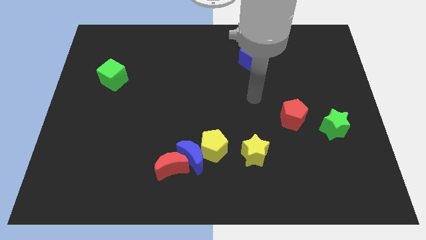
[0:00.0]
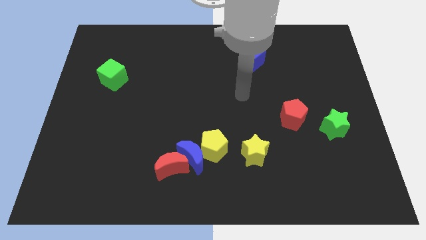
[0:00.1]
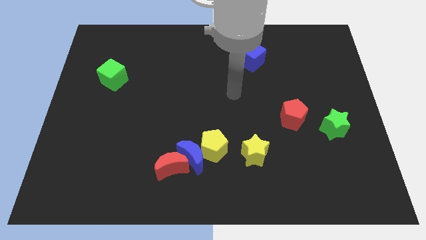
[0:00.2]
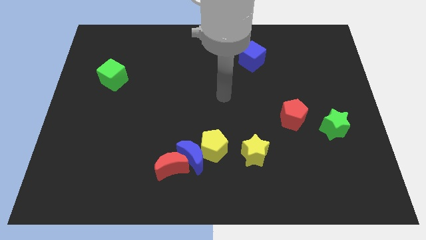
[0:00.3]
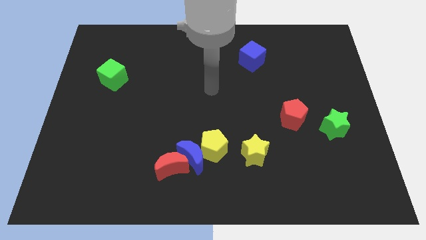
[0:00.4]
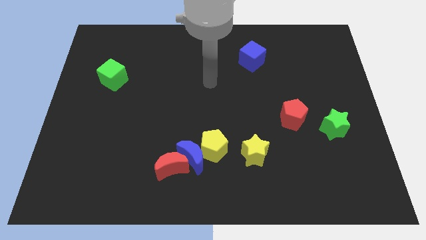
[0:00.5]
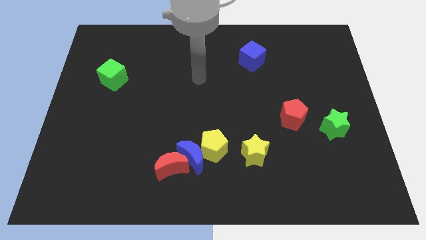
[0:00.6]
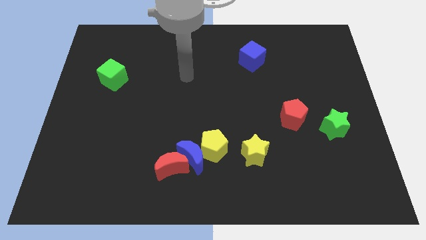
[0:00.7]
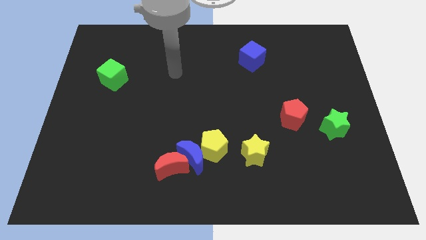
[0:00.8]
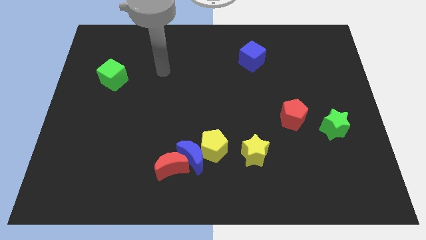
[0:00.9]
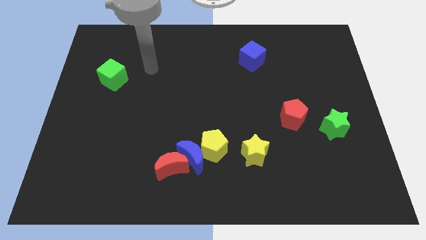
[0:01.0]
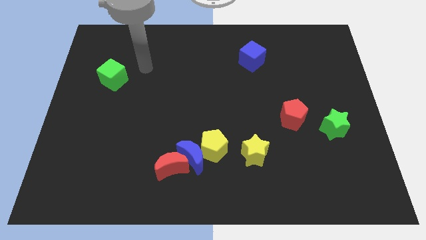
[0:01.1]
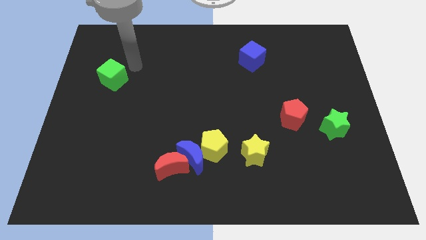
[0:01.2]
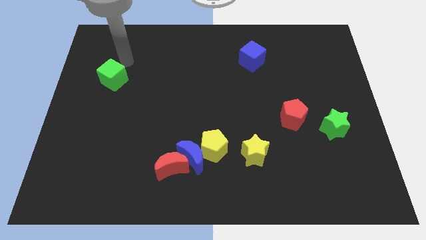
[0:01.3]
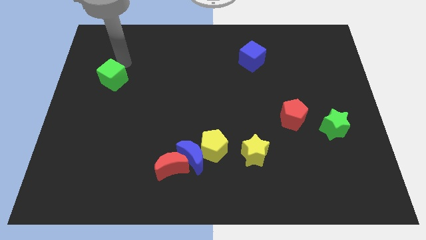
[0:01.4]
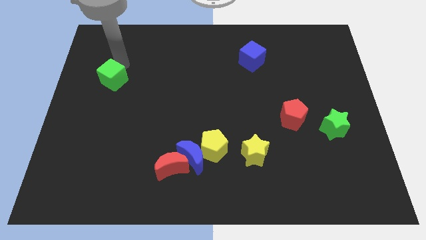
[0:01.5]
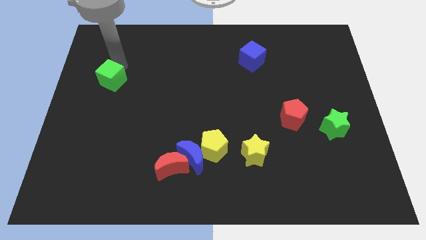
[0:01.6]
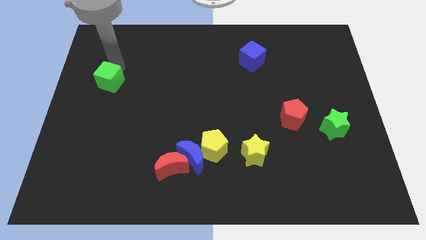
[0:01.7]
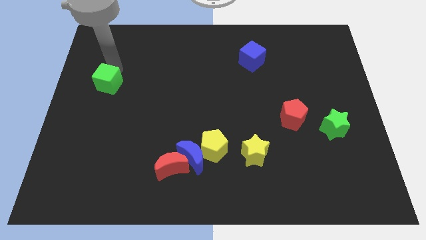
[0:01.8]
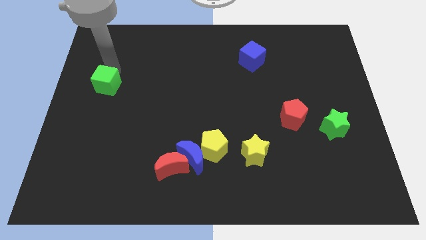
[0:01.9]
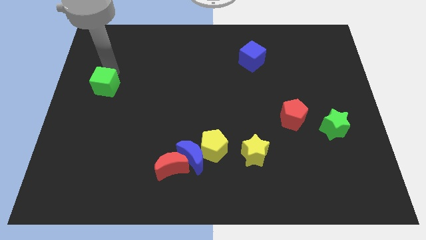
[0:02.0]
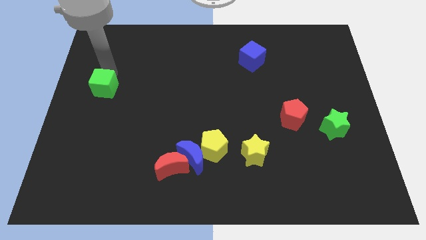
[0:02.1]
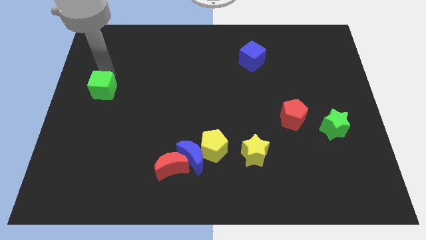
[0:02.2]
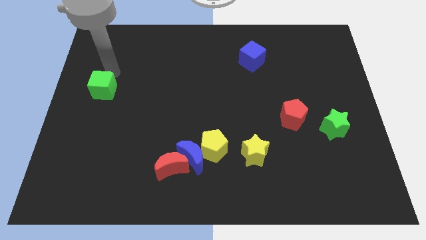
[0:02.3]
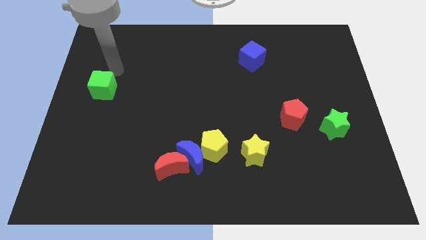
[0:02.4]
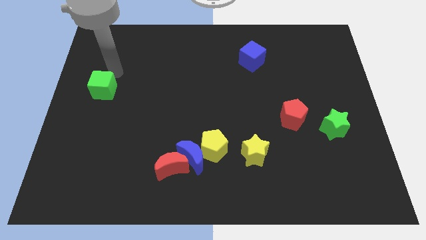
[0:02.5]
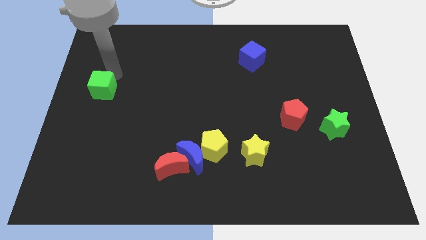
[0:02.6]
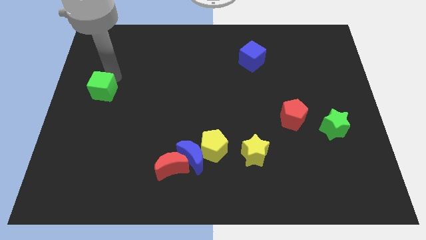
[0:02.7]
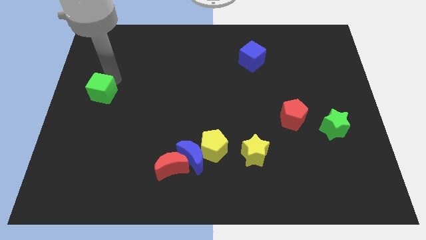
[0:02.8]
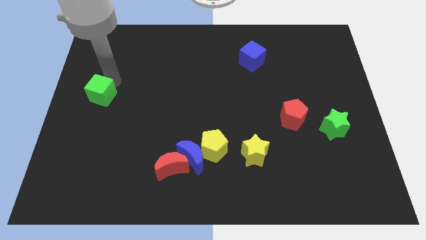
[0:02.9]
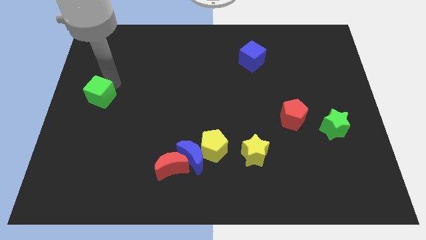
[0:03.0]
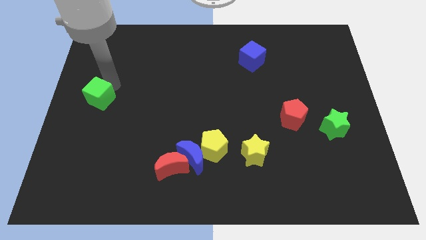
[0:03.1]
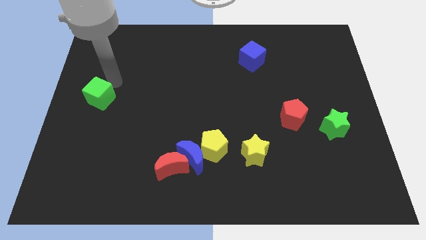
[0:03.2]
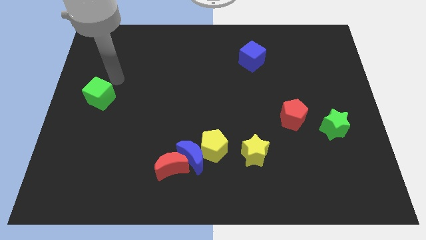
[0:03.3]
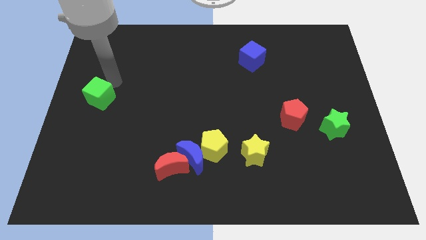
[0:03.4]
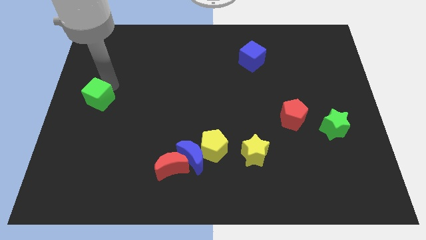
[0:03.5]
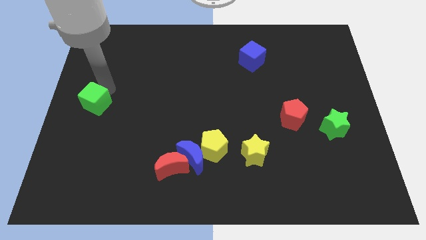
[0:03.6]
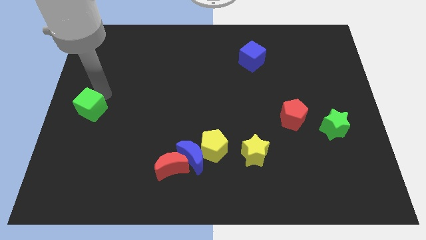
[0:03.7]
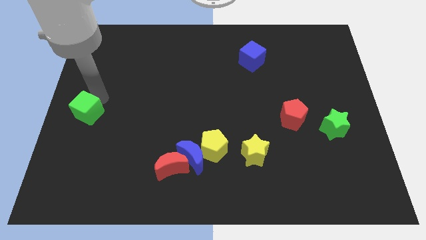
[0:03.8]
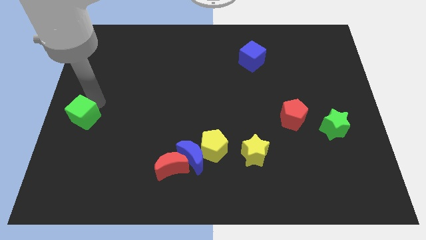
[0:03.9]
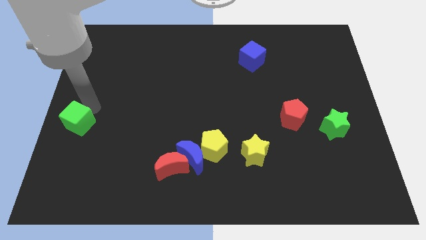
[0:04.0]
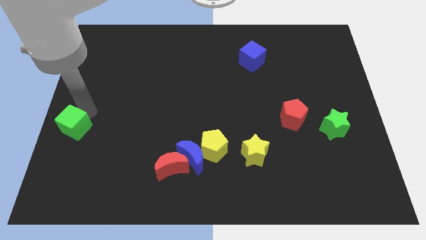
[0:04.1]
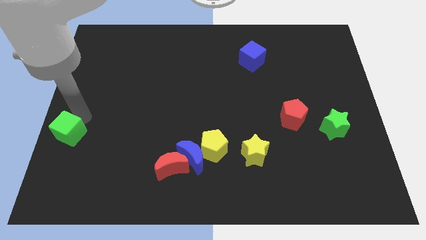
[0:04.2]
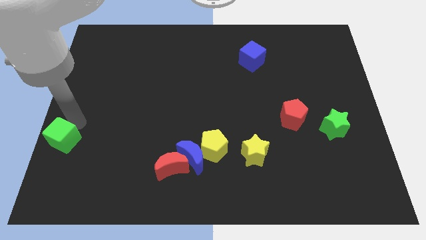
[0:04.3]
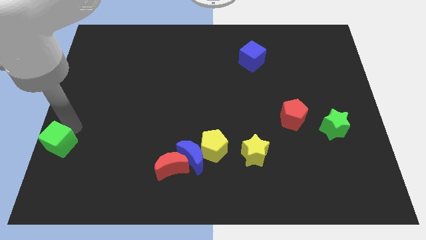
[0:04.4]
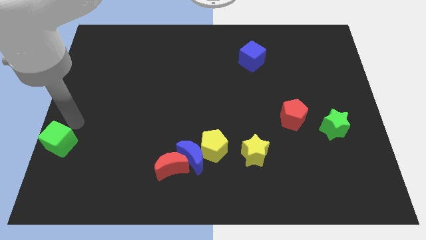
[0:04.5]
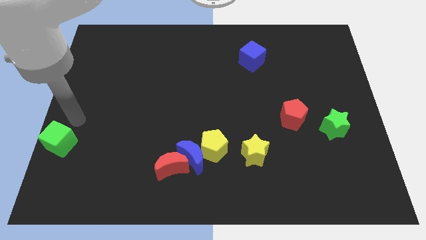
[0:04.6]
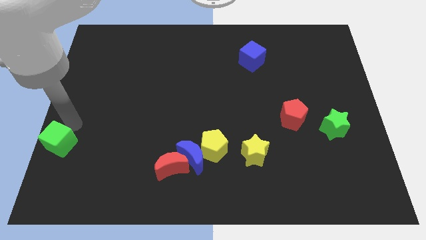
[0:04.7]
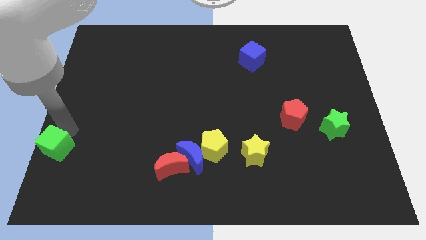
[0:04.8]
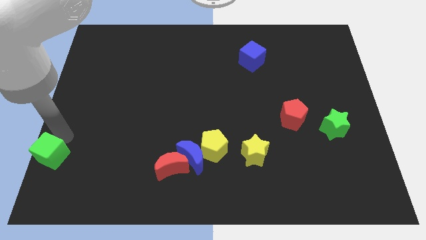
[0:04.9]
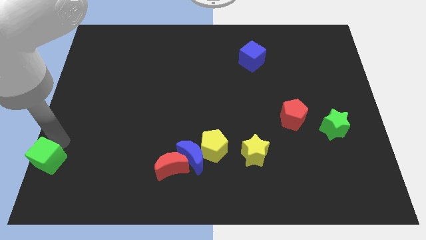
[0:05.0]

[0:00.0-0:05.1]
put the green cube to the bottom left of the board

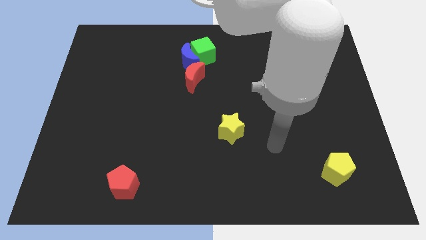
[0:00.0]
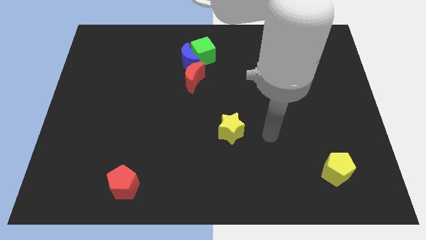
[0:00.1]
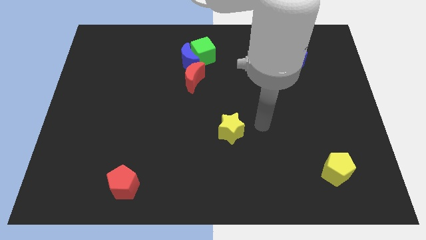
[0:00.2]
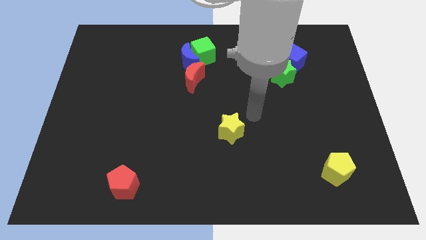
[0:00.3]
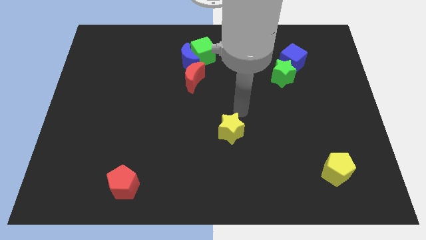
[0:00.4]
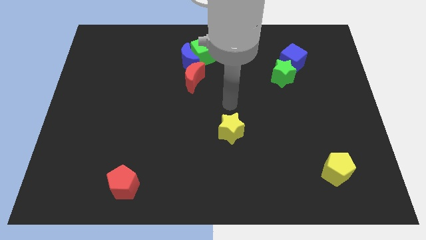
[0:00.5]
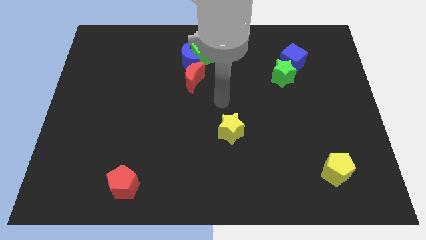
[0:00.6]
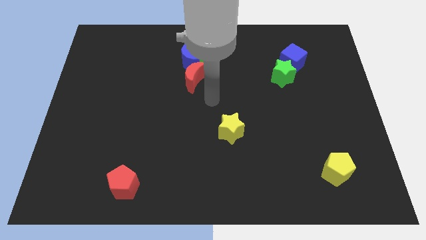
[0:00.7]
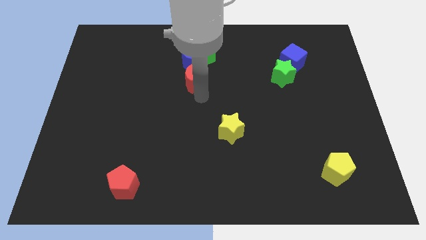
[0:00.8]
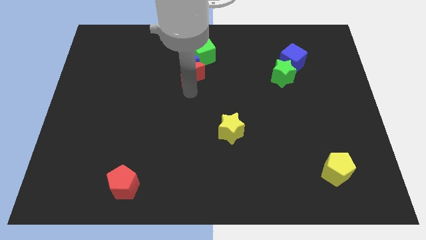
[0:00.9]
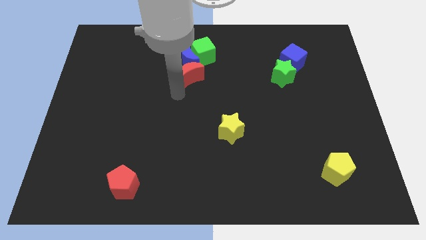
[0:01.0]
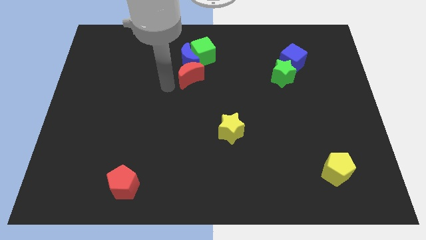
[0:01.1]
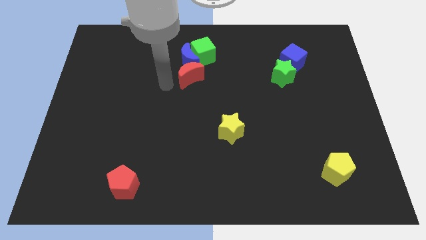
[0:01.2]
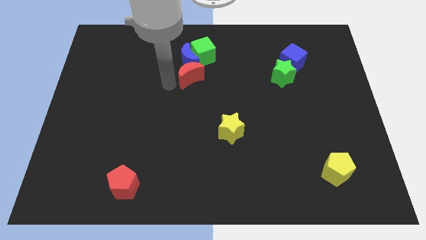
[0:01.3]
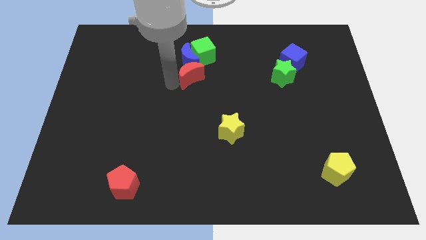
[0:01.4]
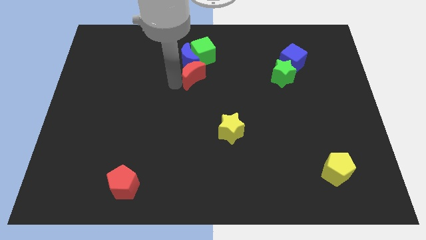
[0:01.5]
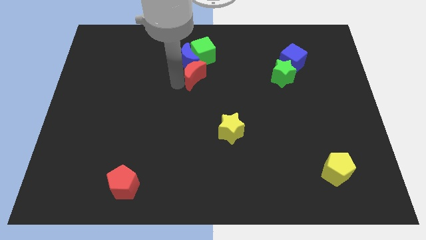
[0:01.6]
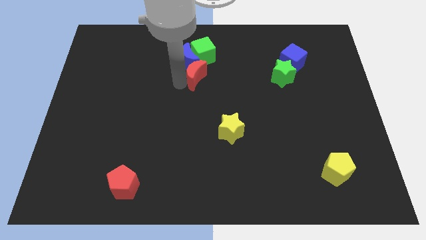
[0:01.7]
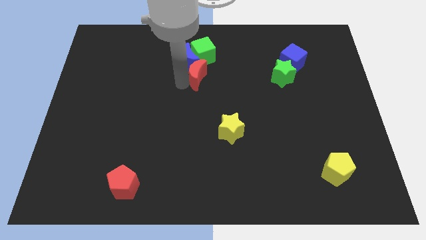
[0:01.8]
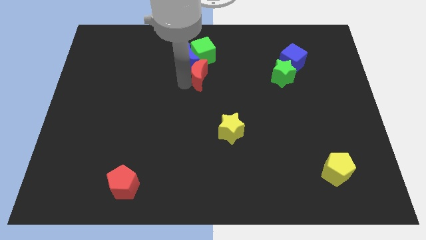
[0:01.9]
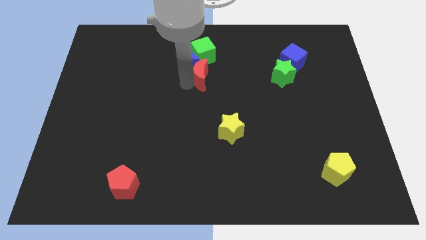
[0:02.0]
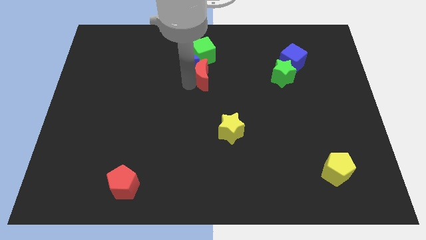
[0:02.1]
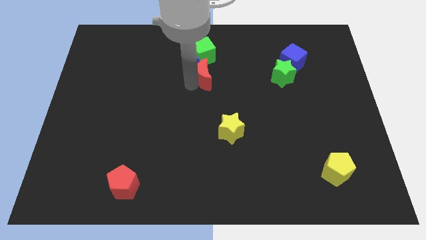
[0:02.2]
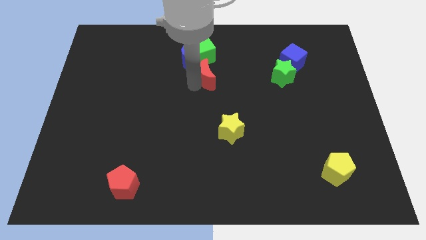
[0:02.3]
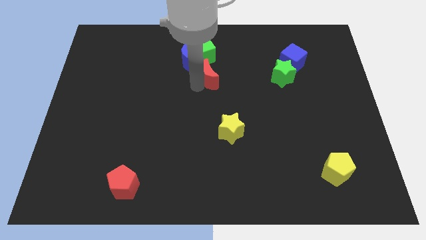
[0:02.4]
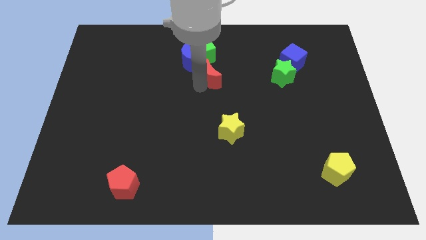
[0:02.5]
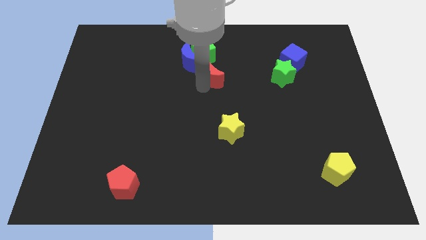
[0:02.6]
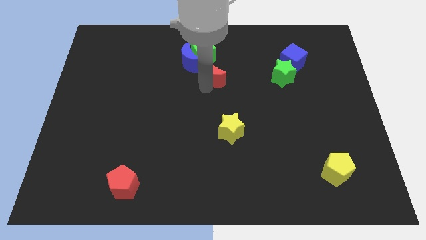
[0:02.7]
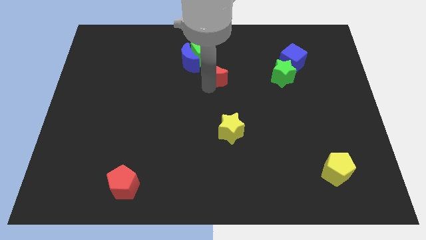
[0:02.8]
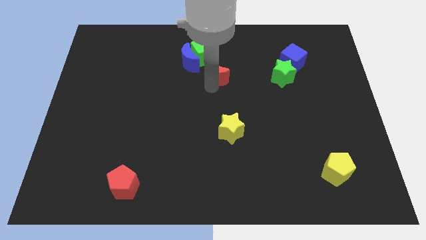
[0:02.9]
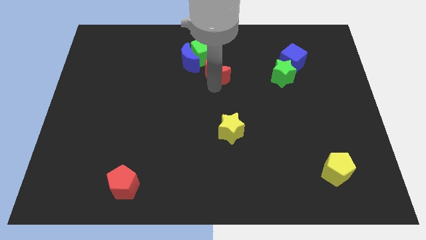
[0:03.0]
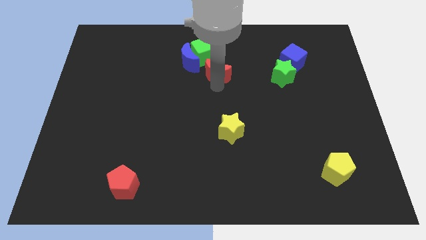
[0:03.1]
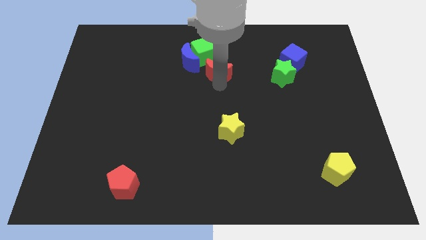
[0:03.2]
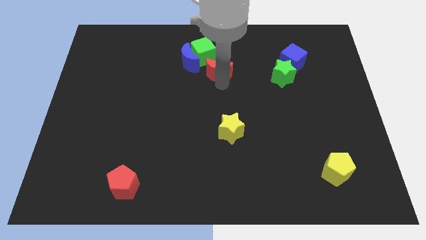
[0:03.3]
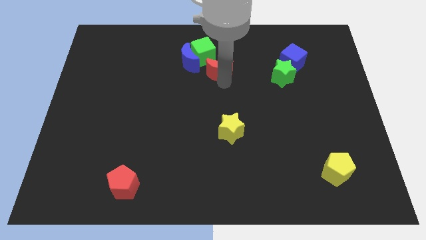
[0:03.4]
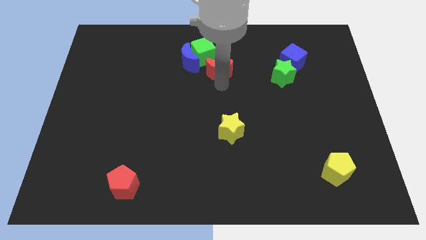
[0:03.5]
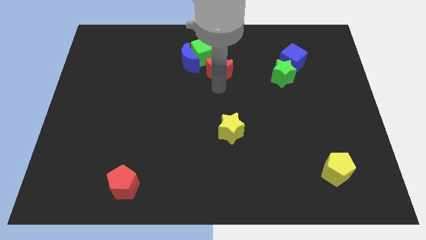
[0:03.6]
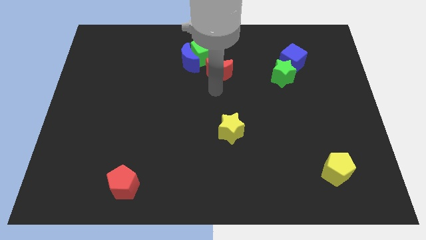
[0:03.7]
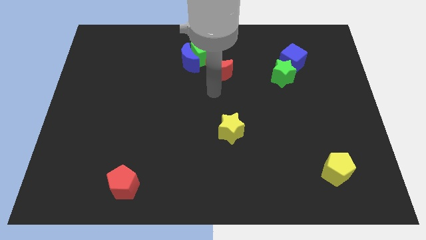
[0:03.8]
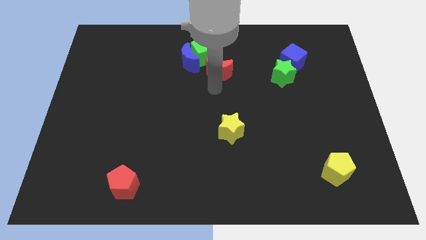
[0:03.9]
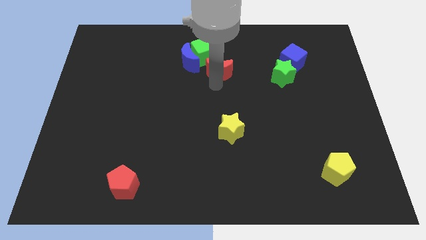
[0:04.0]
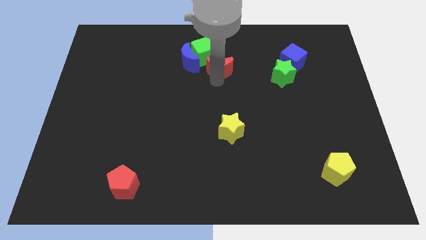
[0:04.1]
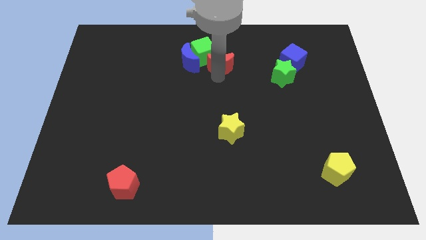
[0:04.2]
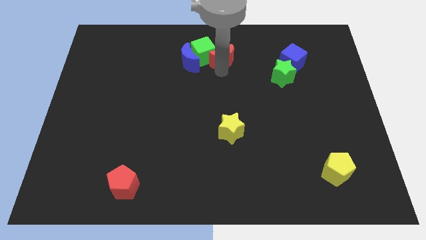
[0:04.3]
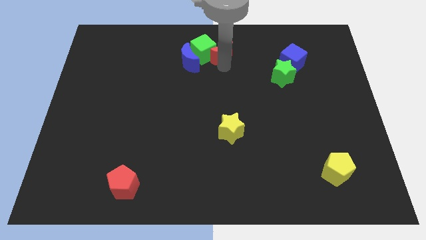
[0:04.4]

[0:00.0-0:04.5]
move the red moon to the top side
